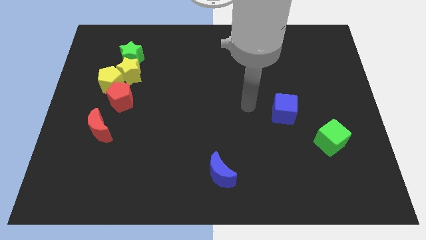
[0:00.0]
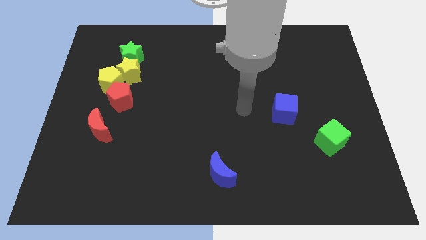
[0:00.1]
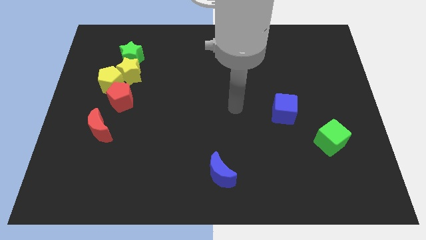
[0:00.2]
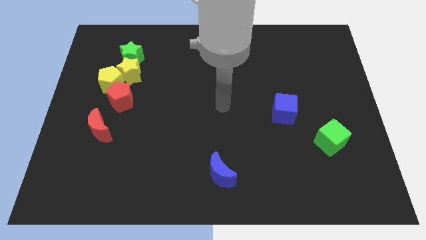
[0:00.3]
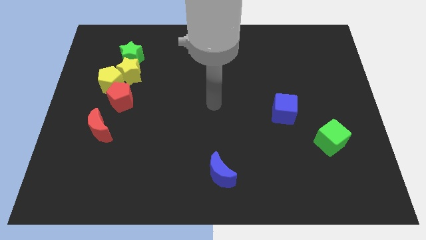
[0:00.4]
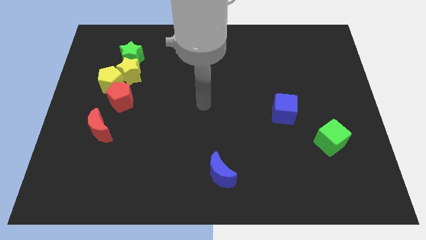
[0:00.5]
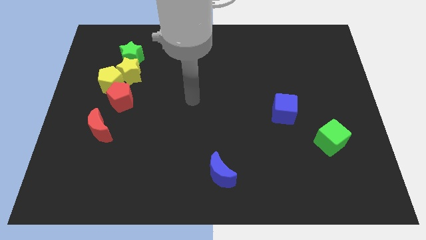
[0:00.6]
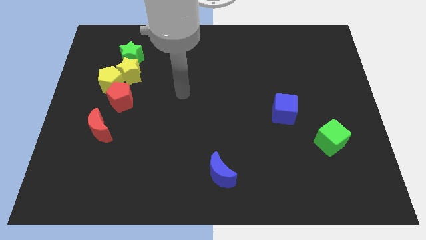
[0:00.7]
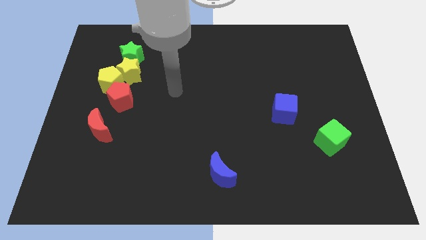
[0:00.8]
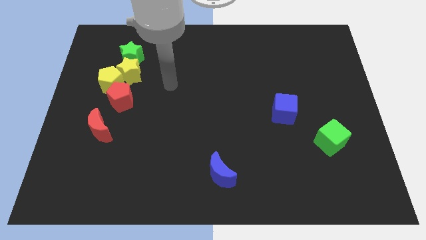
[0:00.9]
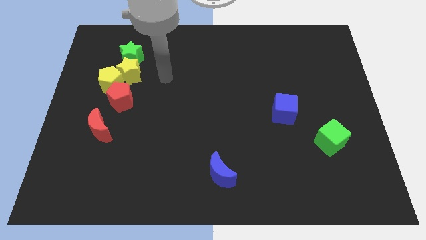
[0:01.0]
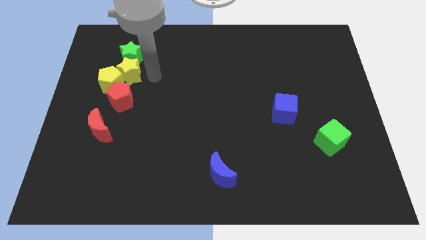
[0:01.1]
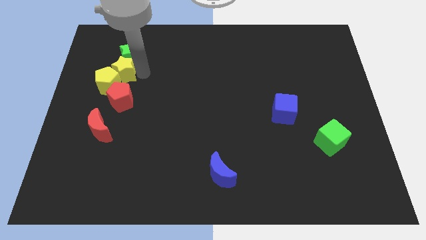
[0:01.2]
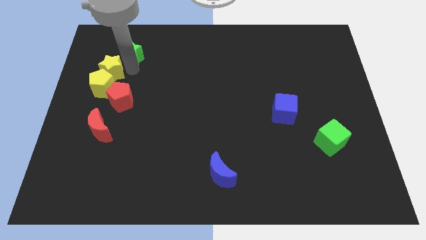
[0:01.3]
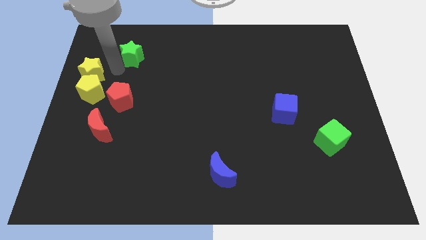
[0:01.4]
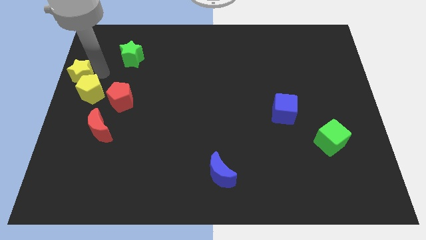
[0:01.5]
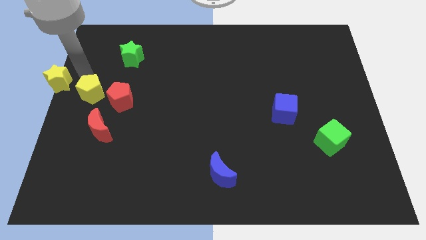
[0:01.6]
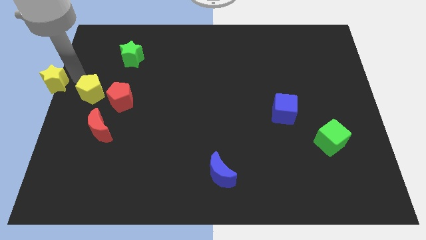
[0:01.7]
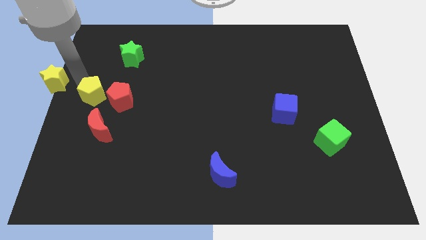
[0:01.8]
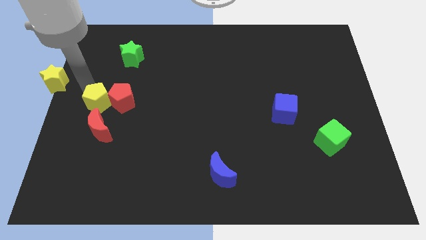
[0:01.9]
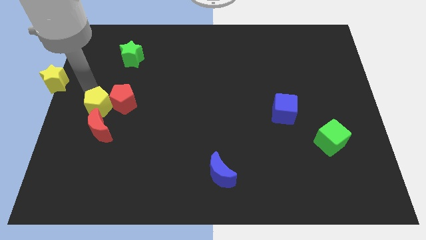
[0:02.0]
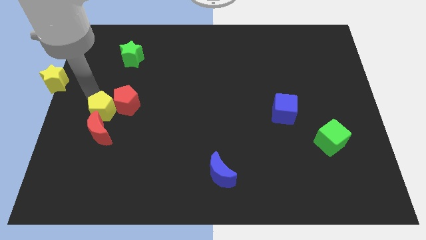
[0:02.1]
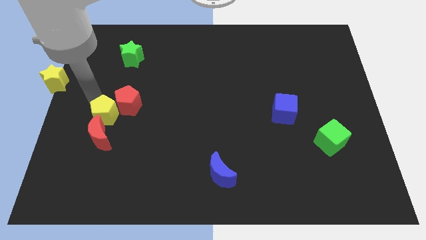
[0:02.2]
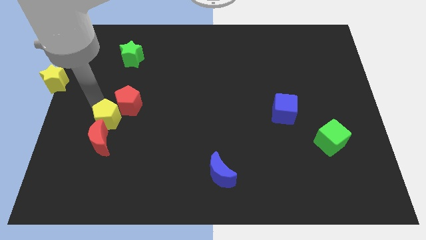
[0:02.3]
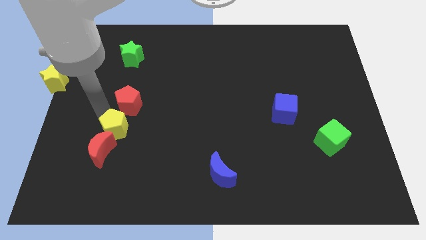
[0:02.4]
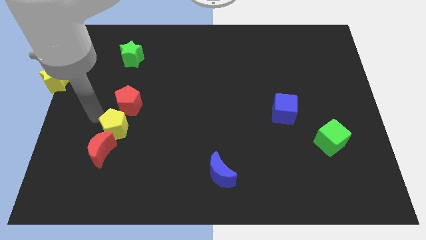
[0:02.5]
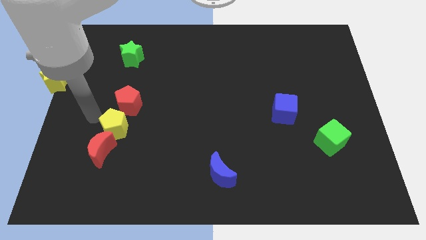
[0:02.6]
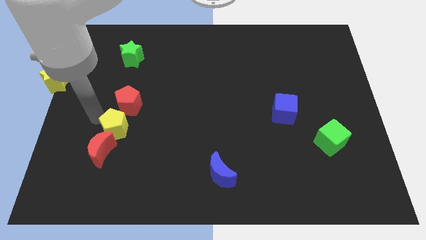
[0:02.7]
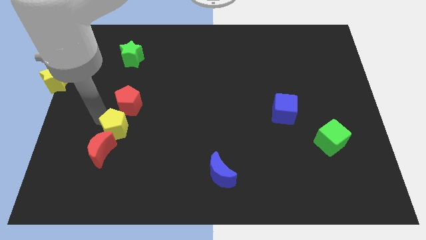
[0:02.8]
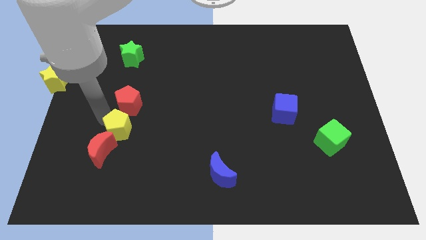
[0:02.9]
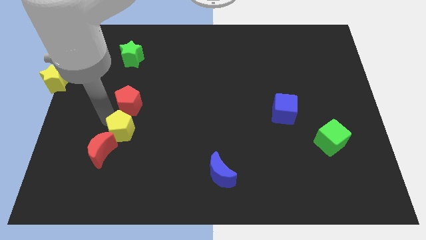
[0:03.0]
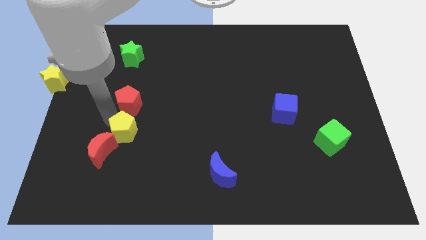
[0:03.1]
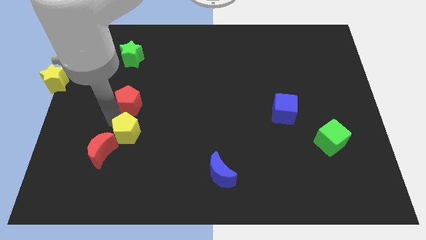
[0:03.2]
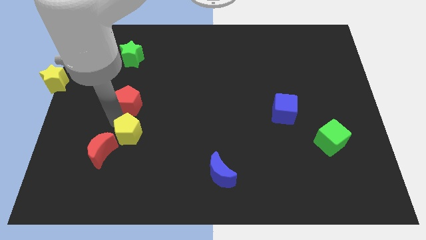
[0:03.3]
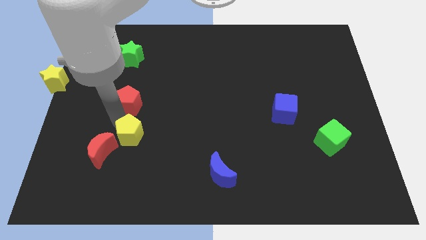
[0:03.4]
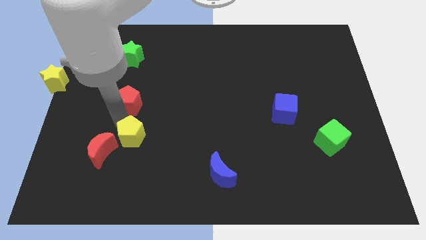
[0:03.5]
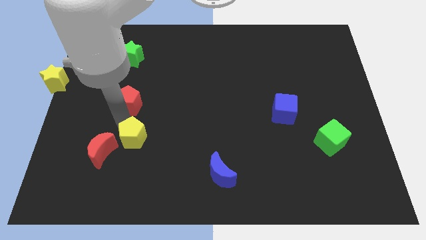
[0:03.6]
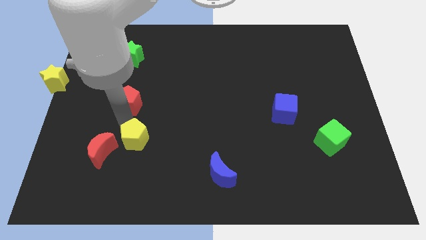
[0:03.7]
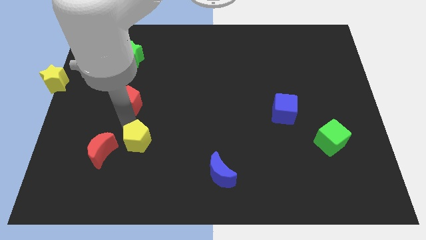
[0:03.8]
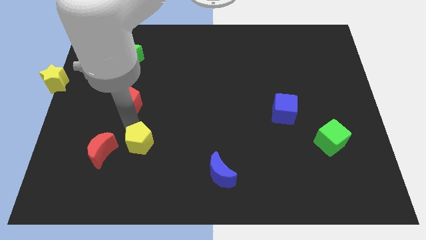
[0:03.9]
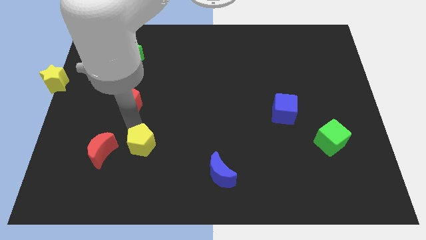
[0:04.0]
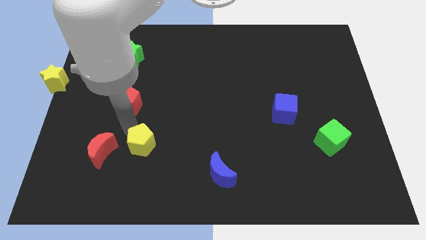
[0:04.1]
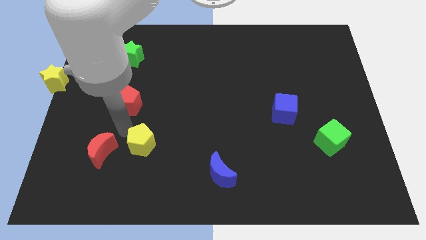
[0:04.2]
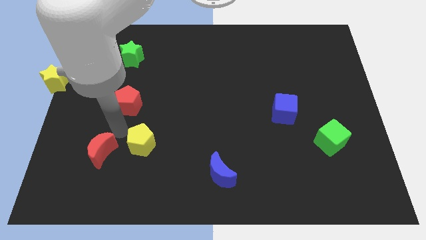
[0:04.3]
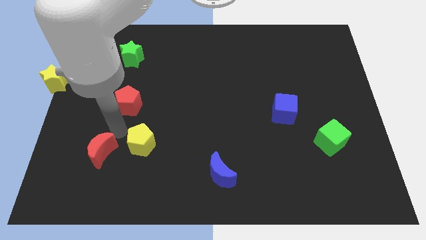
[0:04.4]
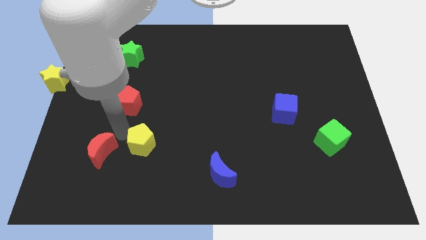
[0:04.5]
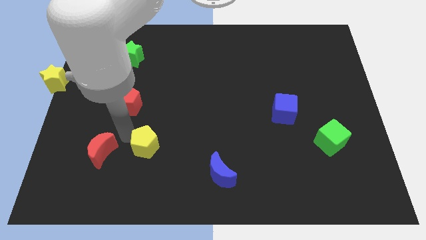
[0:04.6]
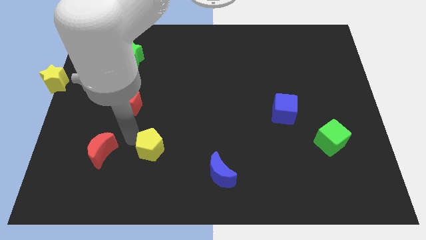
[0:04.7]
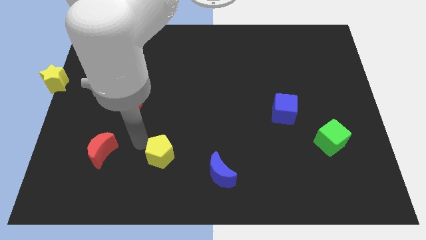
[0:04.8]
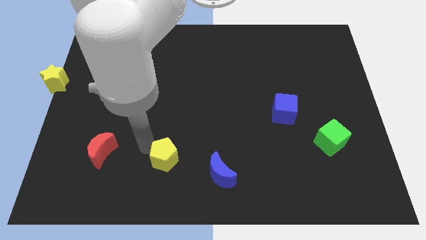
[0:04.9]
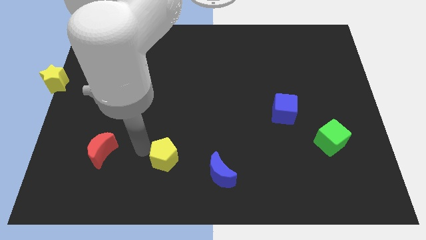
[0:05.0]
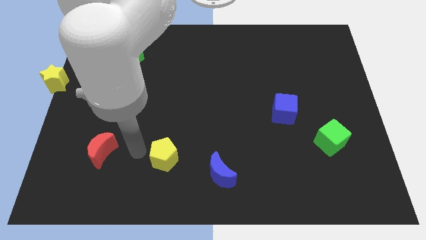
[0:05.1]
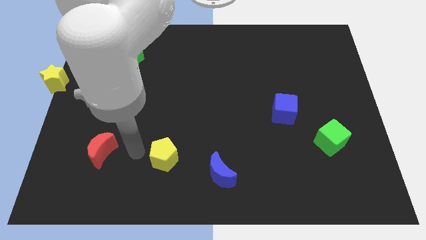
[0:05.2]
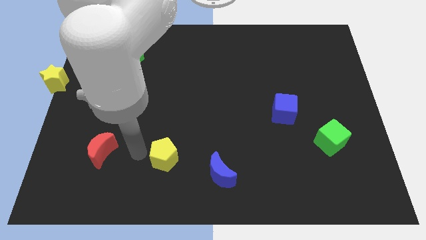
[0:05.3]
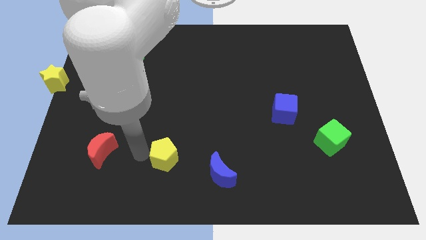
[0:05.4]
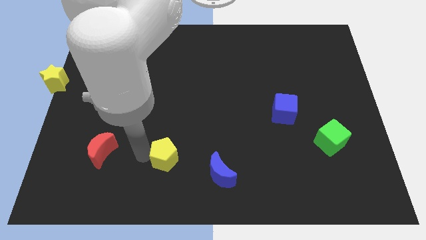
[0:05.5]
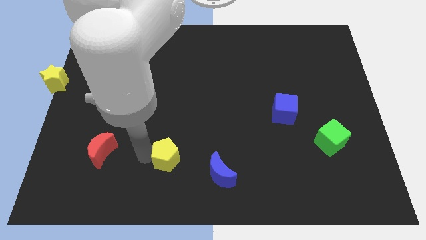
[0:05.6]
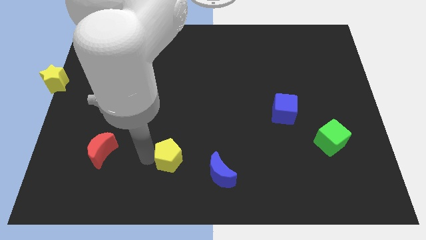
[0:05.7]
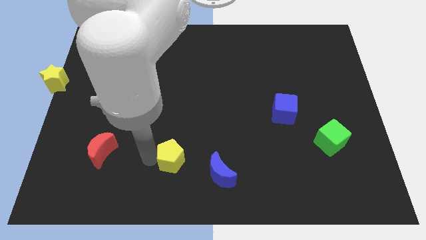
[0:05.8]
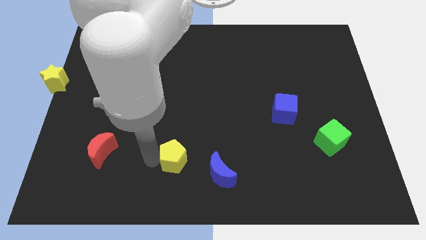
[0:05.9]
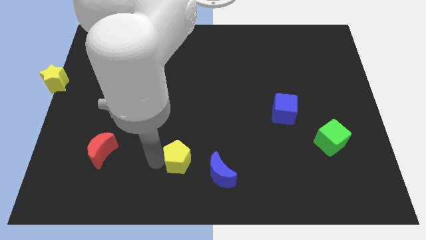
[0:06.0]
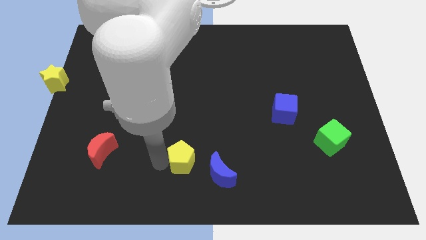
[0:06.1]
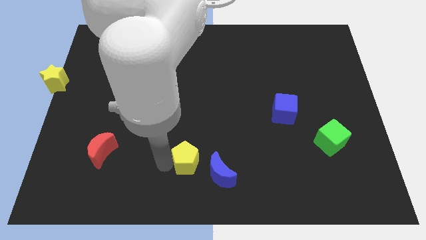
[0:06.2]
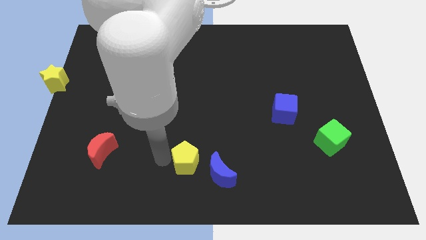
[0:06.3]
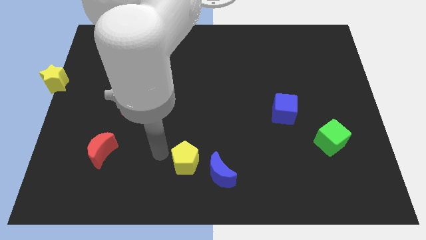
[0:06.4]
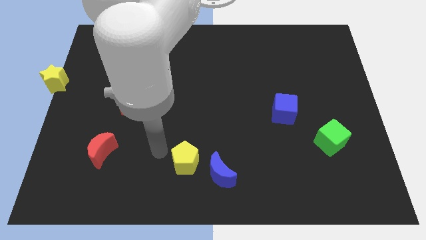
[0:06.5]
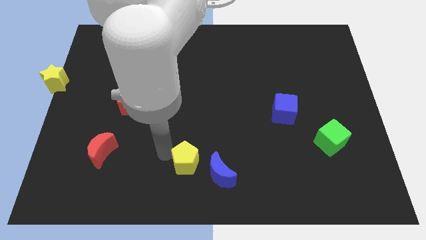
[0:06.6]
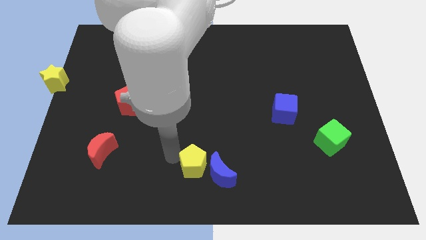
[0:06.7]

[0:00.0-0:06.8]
push the yellow pentagon to the blue moon
